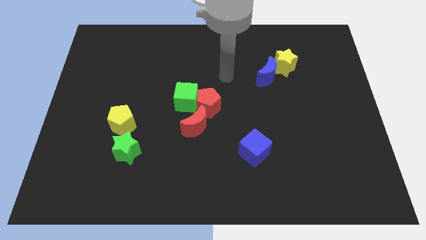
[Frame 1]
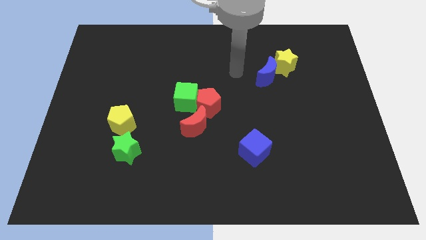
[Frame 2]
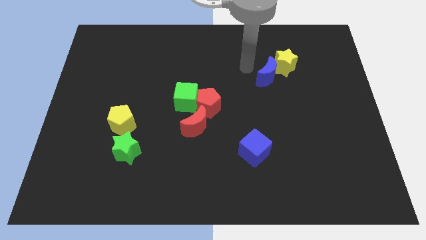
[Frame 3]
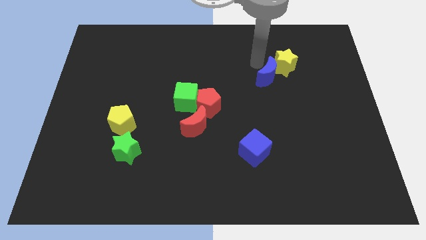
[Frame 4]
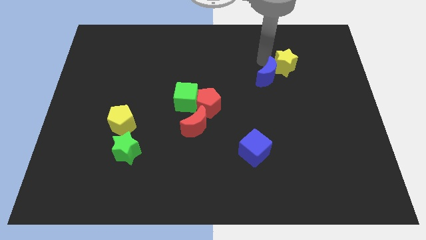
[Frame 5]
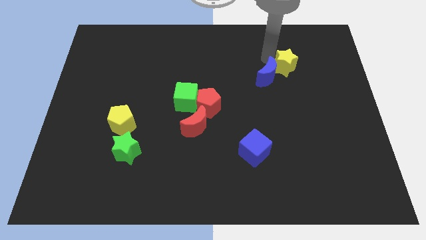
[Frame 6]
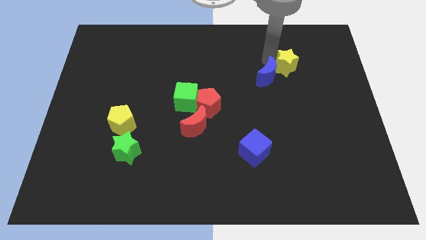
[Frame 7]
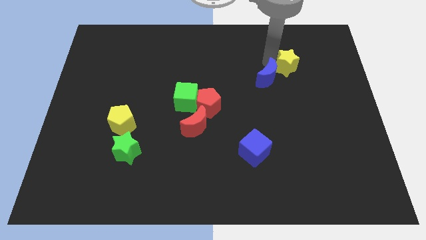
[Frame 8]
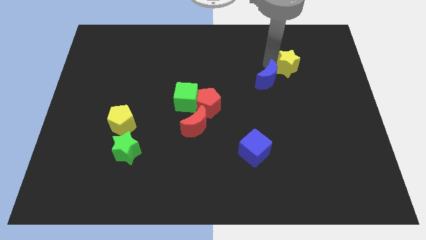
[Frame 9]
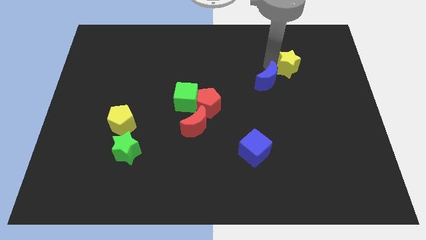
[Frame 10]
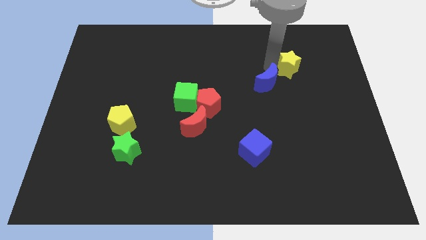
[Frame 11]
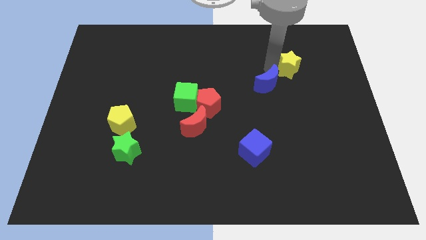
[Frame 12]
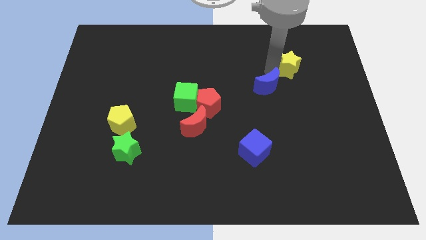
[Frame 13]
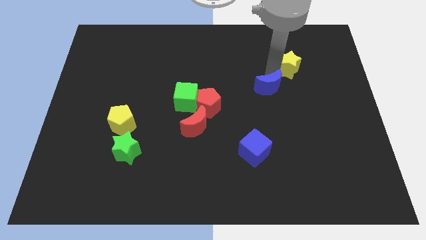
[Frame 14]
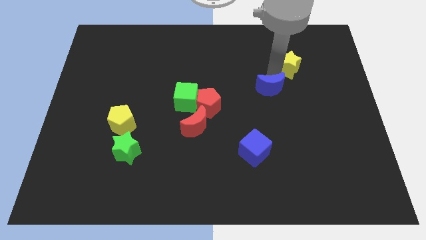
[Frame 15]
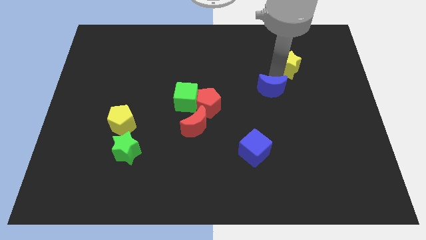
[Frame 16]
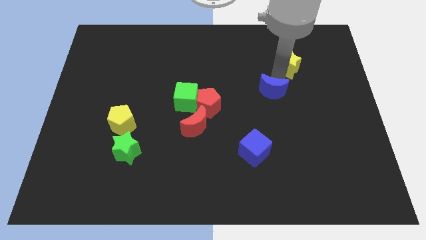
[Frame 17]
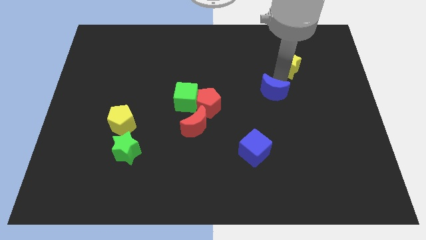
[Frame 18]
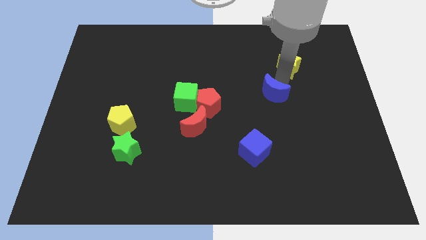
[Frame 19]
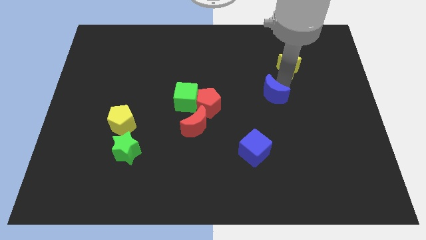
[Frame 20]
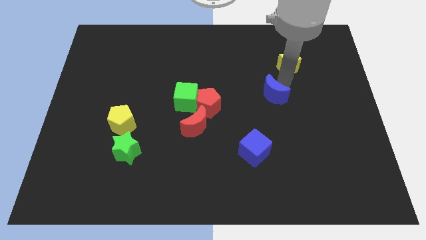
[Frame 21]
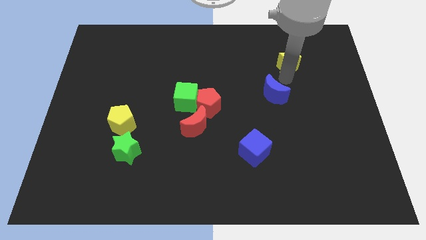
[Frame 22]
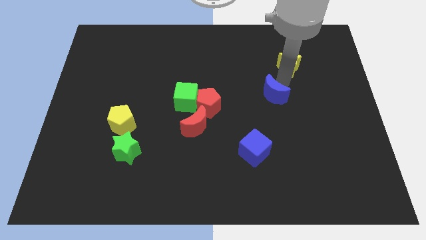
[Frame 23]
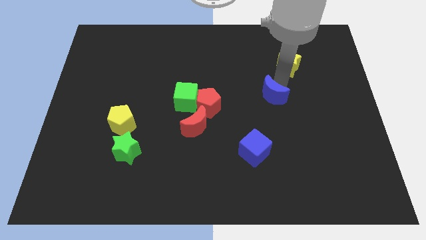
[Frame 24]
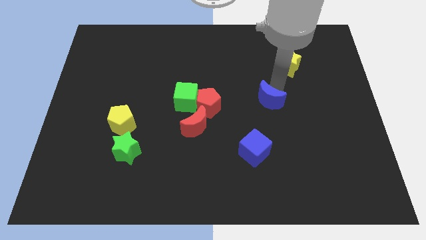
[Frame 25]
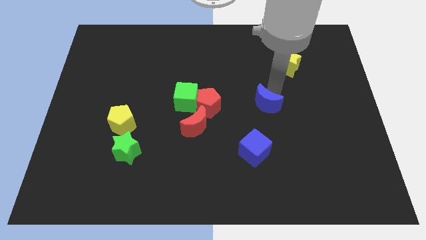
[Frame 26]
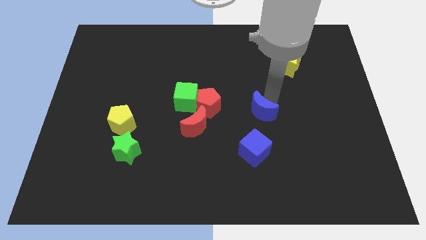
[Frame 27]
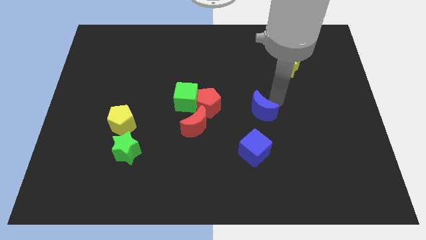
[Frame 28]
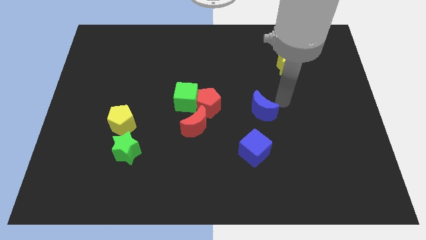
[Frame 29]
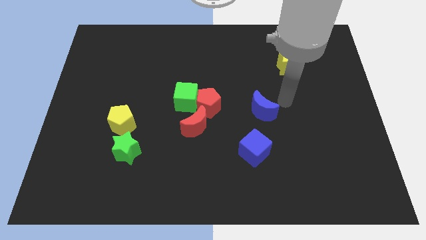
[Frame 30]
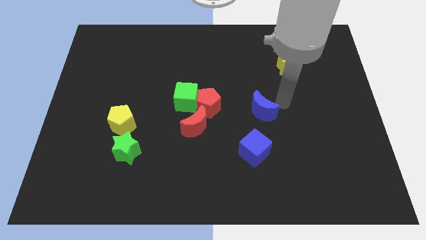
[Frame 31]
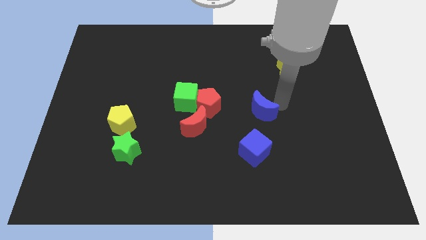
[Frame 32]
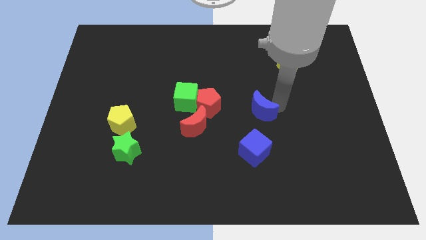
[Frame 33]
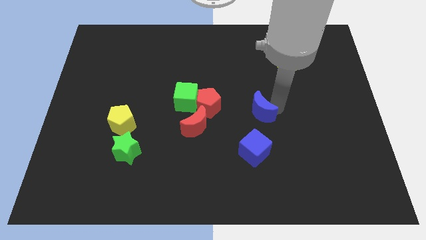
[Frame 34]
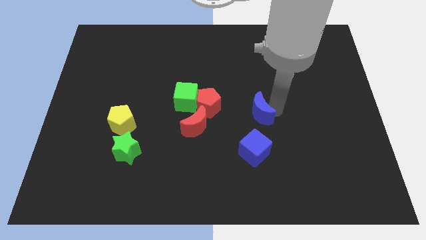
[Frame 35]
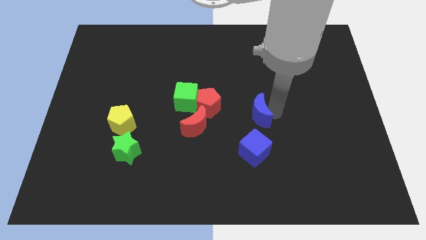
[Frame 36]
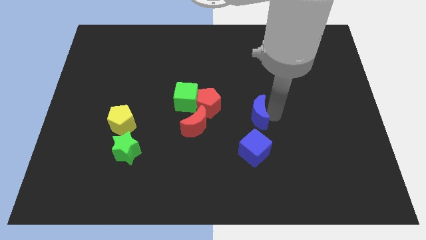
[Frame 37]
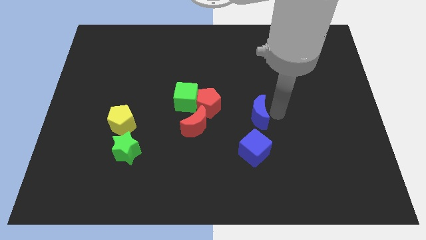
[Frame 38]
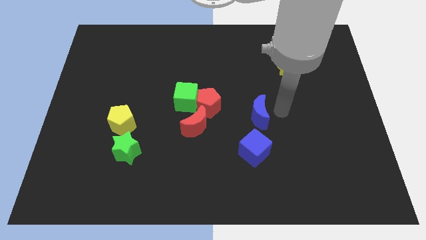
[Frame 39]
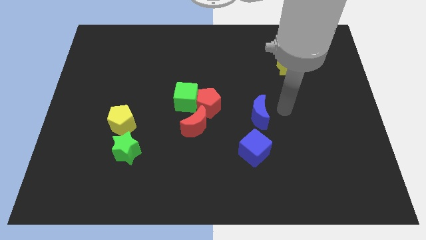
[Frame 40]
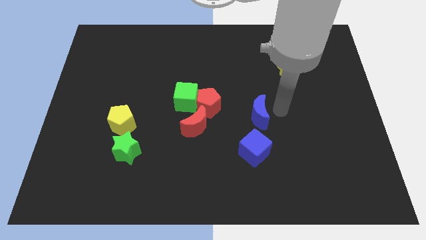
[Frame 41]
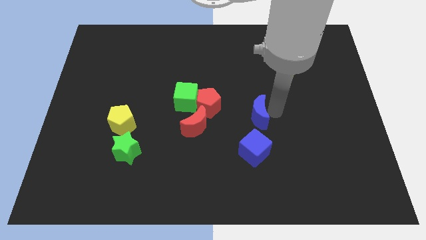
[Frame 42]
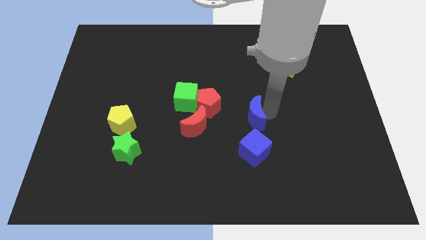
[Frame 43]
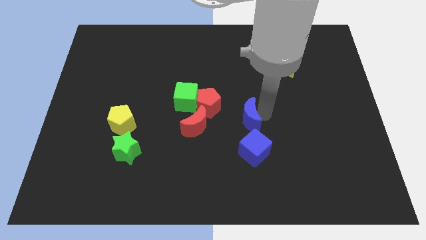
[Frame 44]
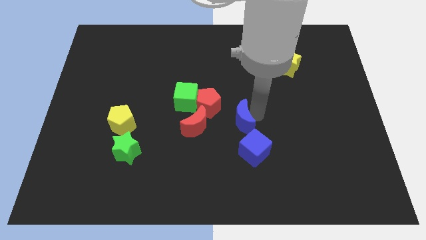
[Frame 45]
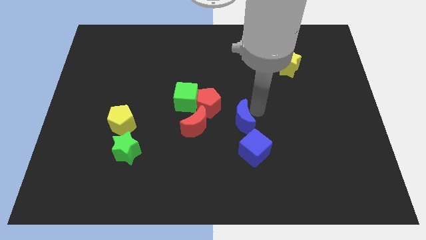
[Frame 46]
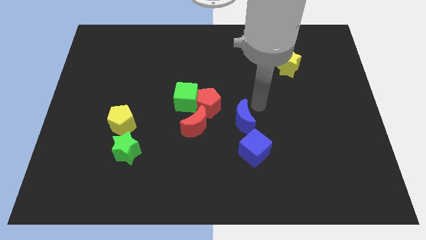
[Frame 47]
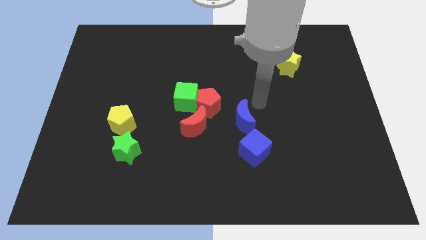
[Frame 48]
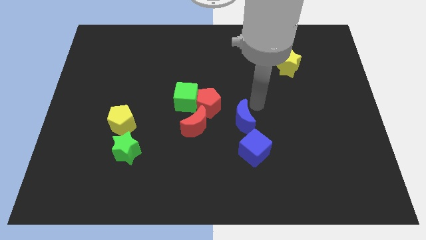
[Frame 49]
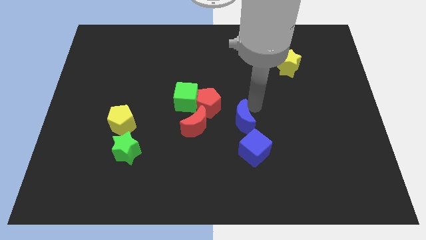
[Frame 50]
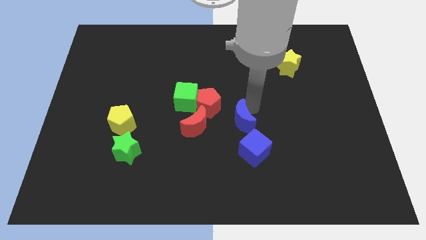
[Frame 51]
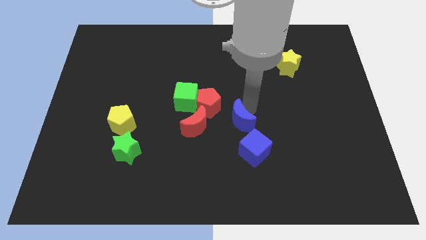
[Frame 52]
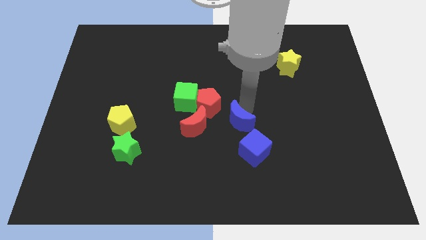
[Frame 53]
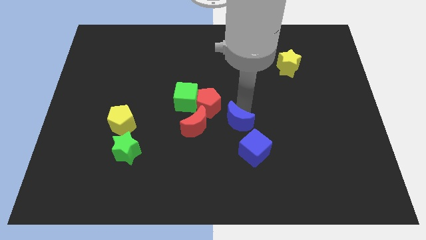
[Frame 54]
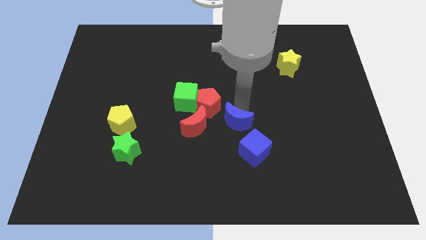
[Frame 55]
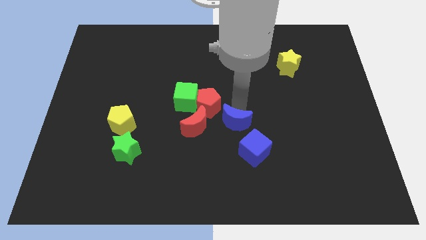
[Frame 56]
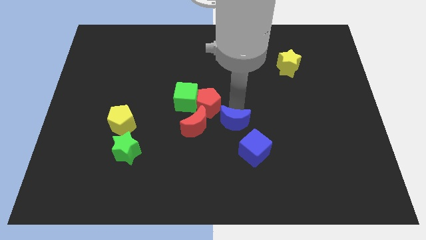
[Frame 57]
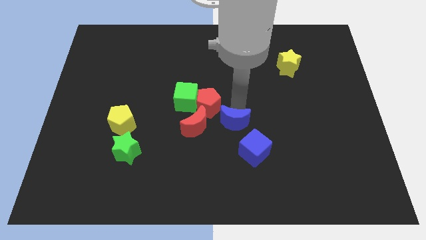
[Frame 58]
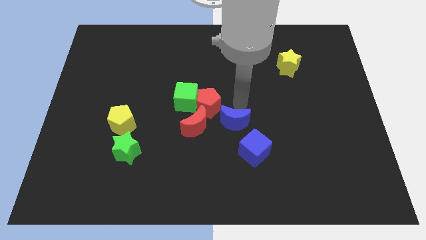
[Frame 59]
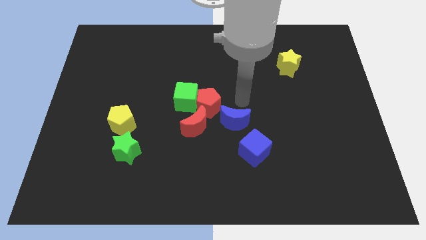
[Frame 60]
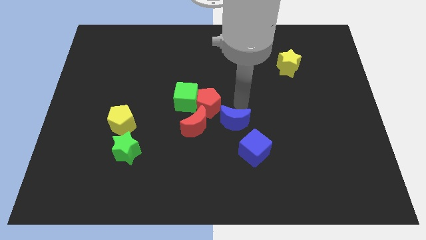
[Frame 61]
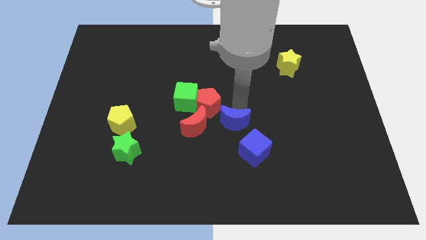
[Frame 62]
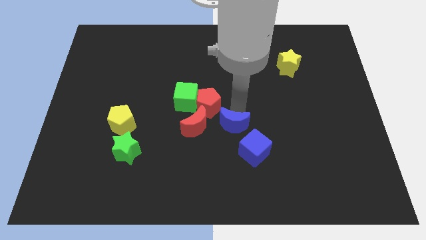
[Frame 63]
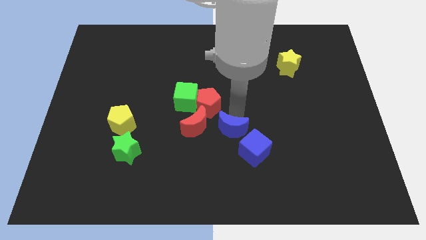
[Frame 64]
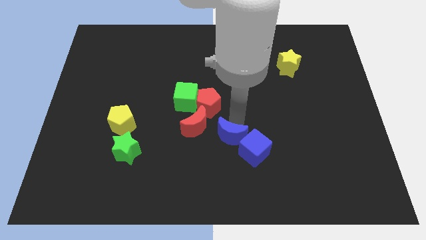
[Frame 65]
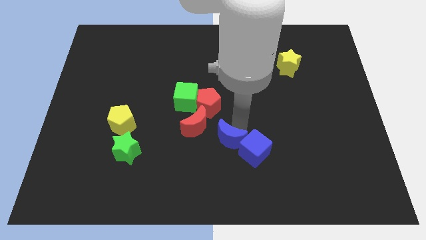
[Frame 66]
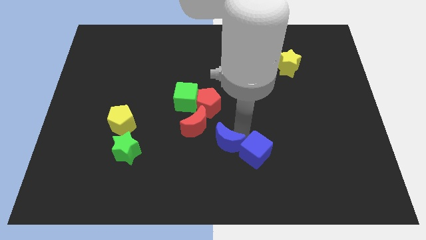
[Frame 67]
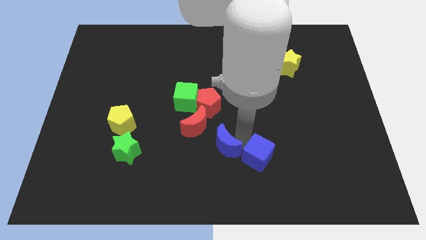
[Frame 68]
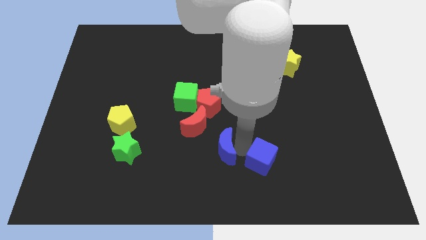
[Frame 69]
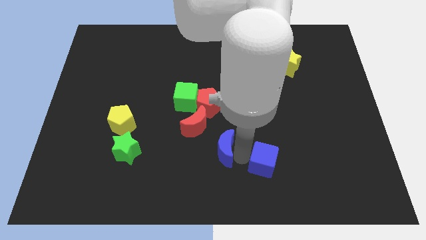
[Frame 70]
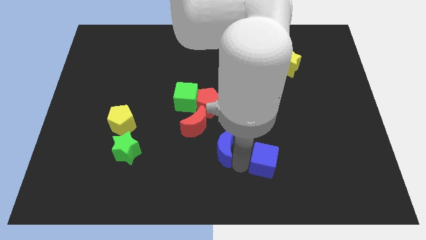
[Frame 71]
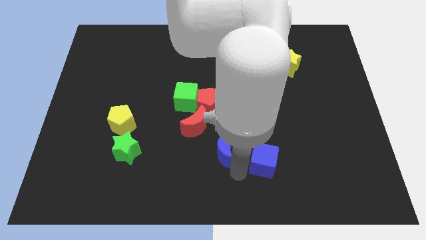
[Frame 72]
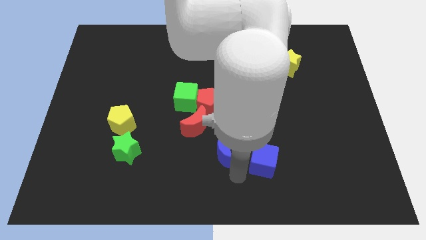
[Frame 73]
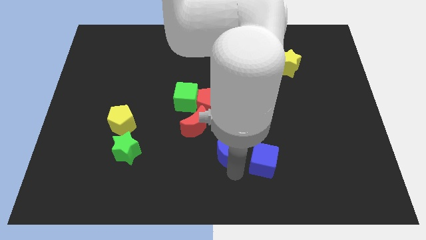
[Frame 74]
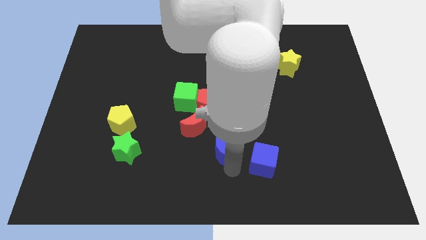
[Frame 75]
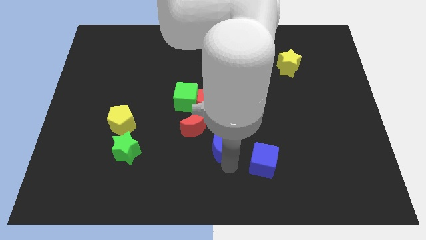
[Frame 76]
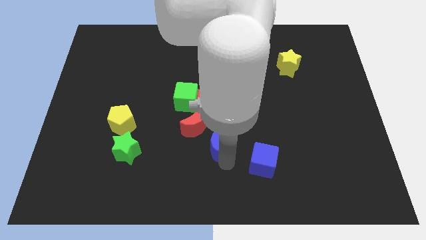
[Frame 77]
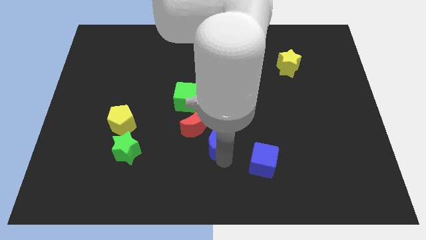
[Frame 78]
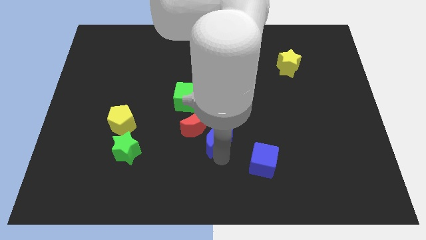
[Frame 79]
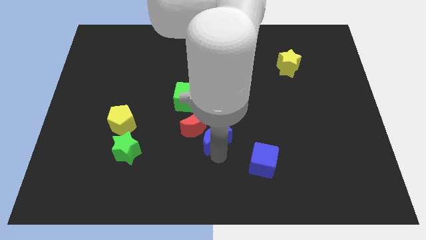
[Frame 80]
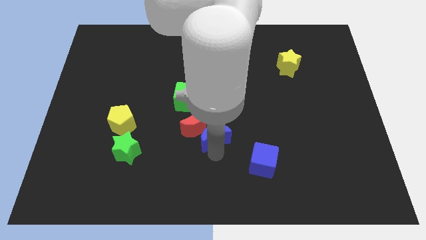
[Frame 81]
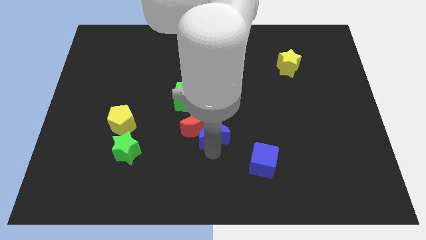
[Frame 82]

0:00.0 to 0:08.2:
slide the blue moon diagonally down and to the right of the green cube
